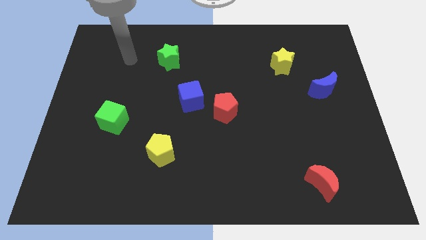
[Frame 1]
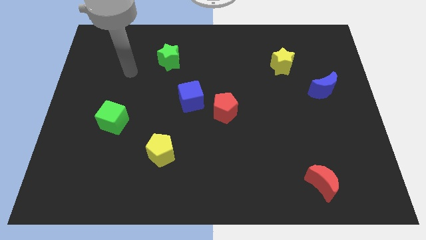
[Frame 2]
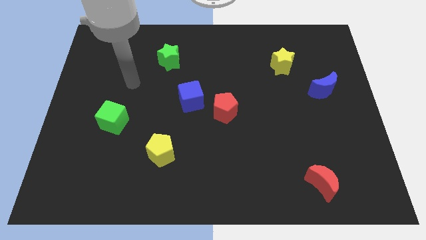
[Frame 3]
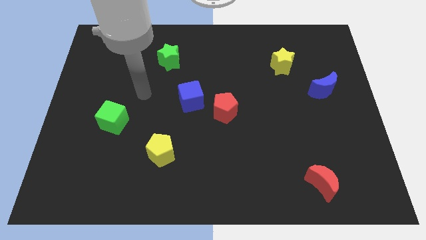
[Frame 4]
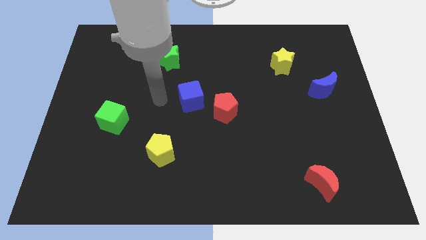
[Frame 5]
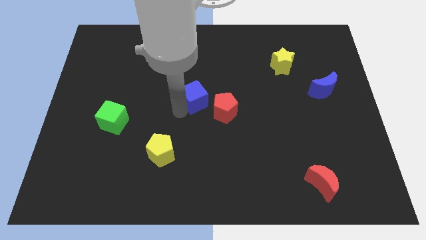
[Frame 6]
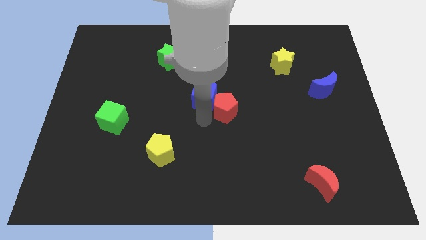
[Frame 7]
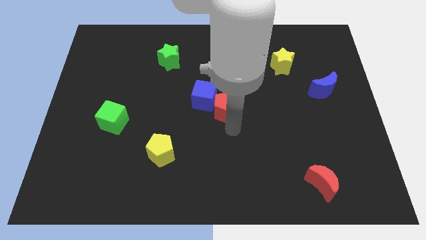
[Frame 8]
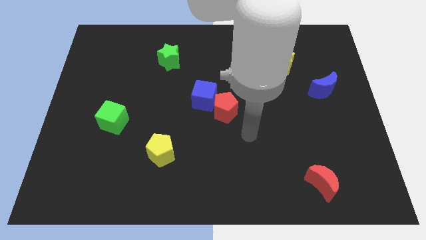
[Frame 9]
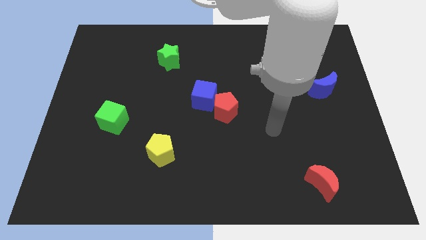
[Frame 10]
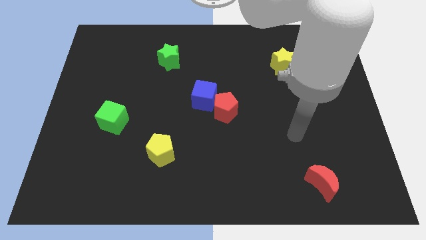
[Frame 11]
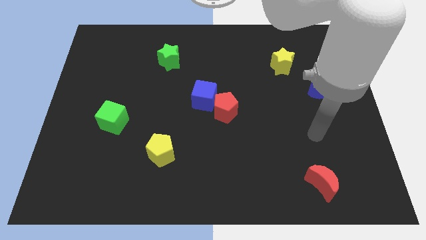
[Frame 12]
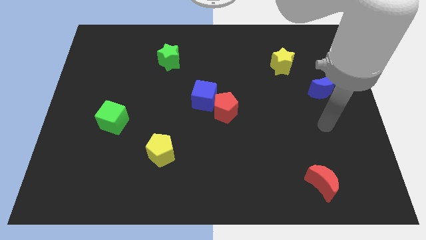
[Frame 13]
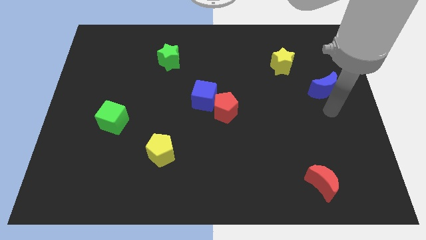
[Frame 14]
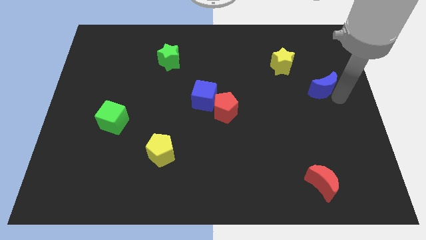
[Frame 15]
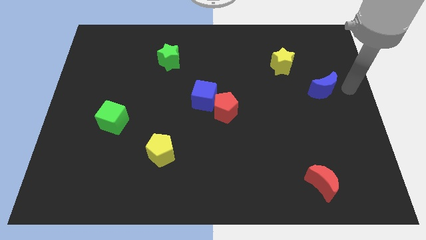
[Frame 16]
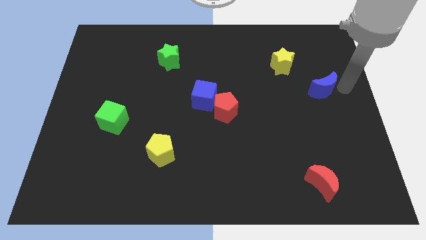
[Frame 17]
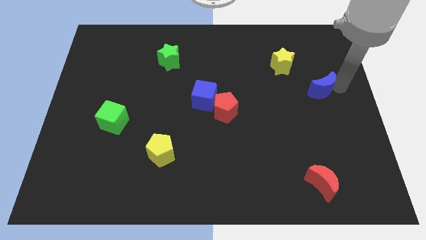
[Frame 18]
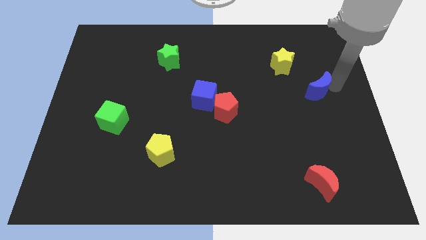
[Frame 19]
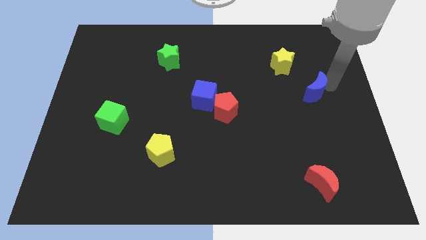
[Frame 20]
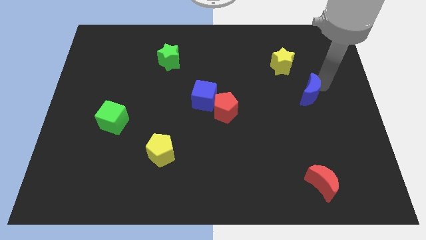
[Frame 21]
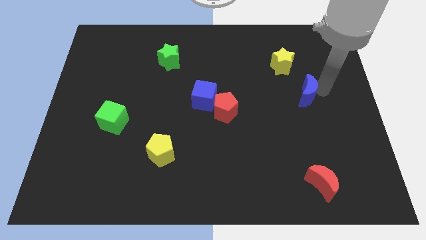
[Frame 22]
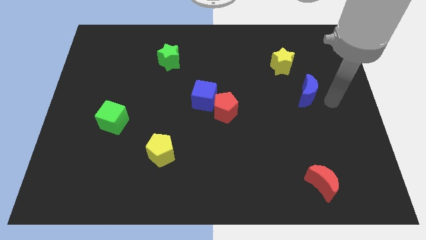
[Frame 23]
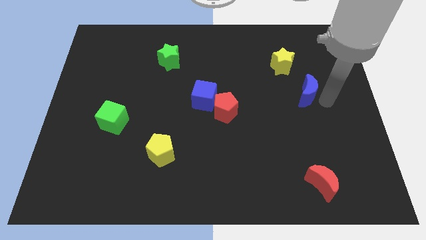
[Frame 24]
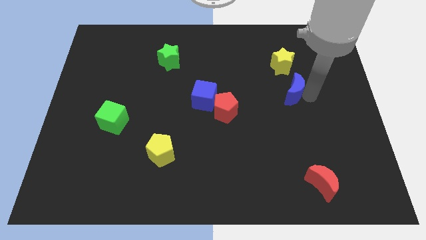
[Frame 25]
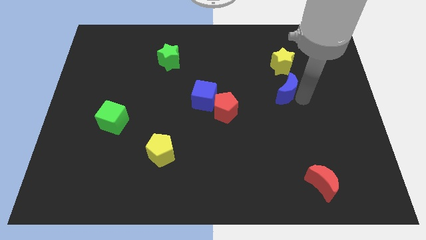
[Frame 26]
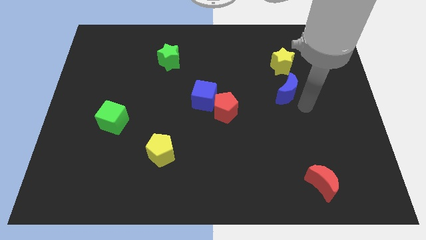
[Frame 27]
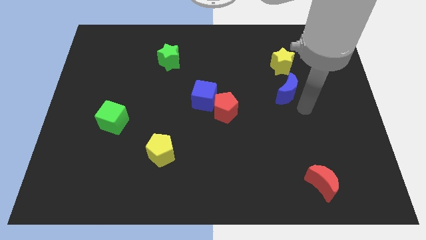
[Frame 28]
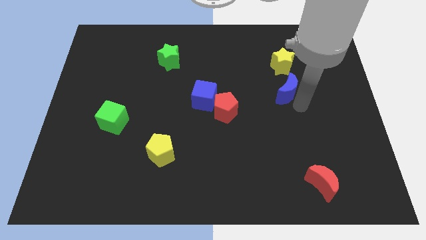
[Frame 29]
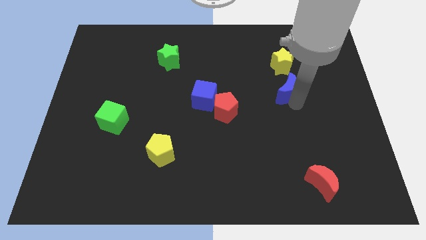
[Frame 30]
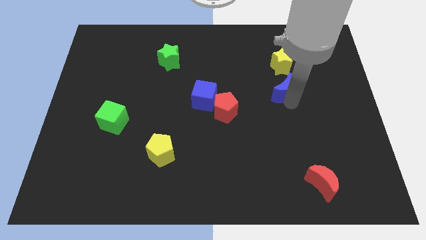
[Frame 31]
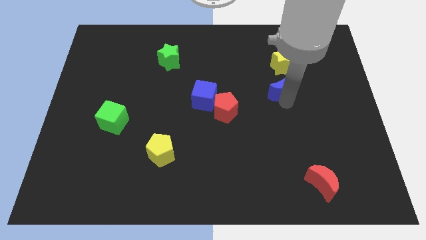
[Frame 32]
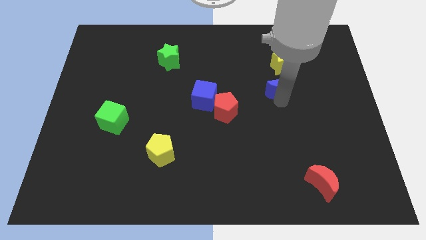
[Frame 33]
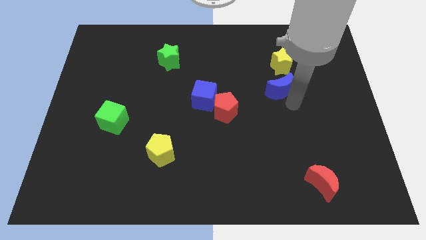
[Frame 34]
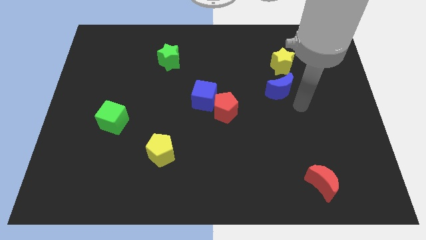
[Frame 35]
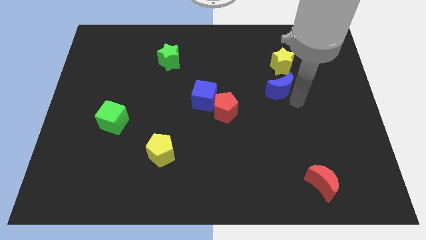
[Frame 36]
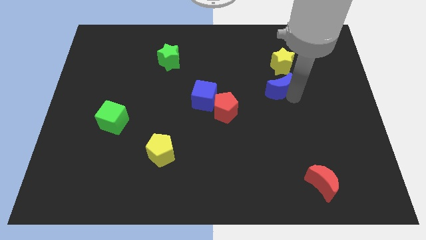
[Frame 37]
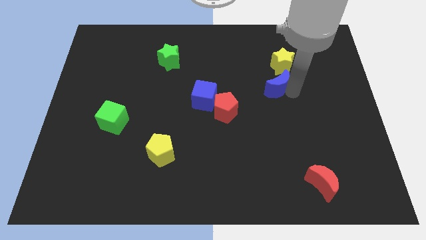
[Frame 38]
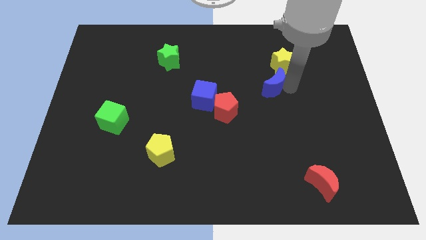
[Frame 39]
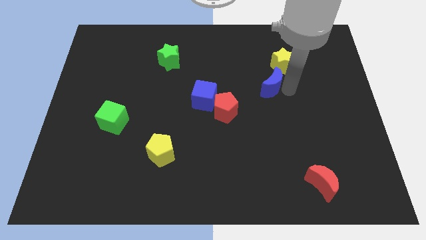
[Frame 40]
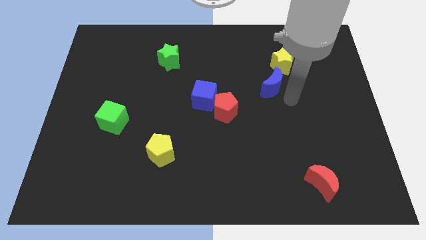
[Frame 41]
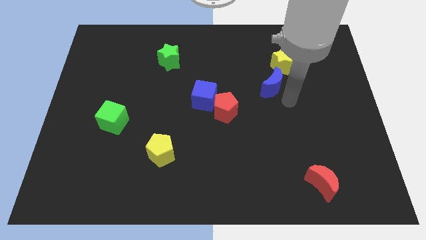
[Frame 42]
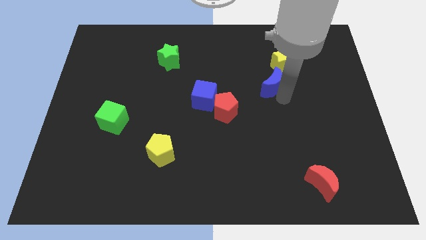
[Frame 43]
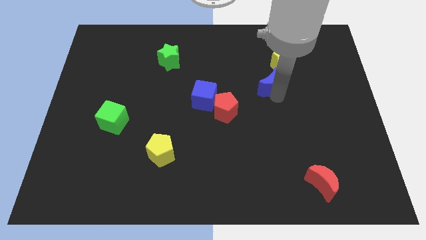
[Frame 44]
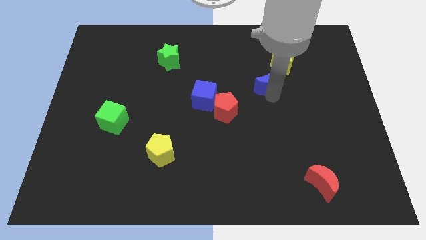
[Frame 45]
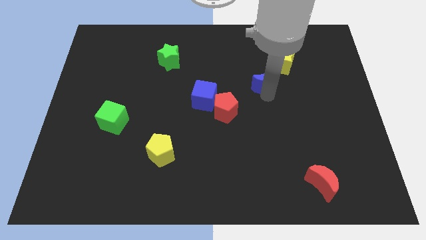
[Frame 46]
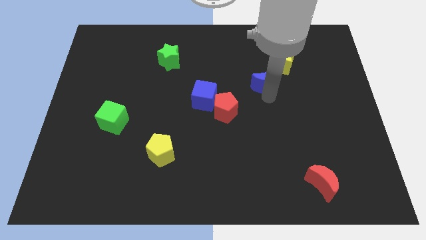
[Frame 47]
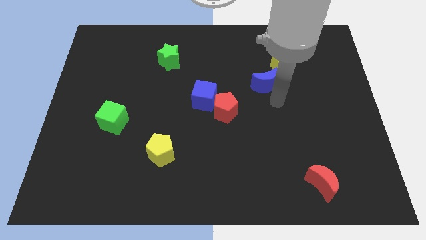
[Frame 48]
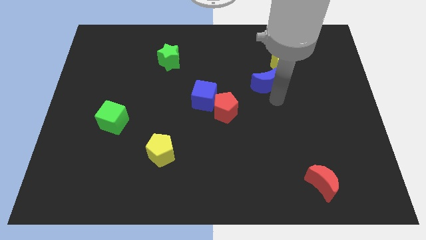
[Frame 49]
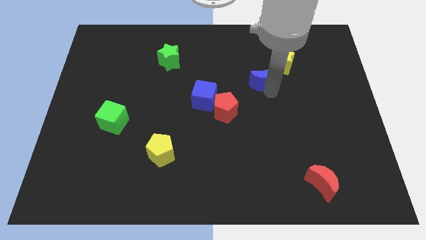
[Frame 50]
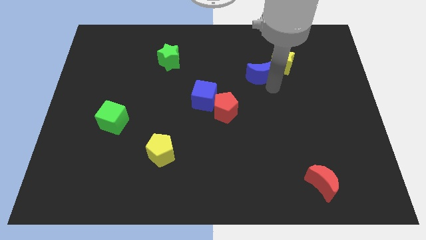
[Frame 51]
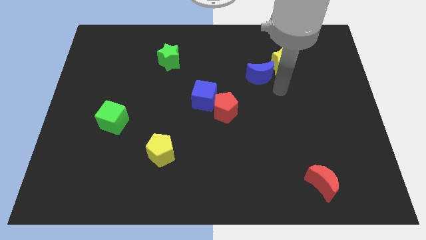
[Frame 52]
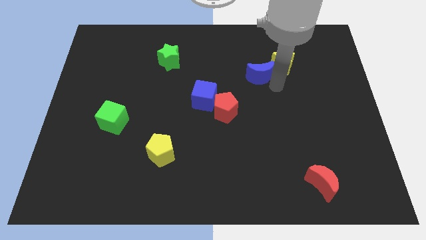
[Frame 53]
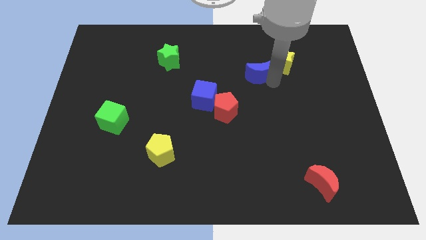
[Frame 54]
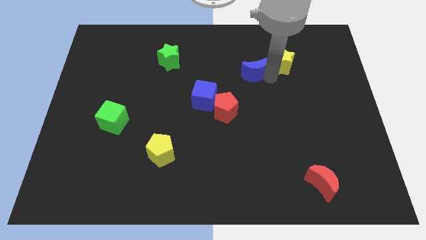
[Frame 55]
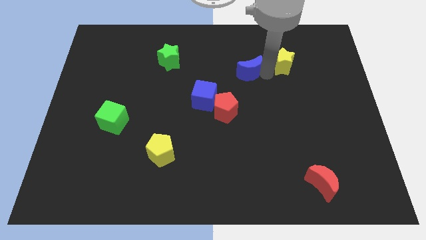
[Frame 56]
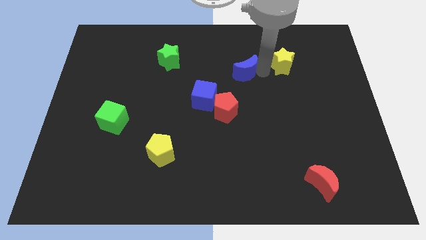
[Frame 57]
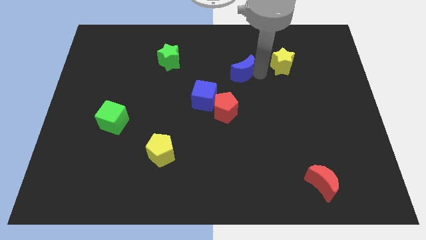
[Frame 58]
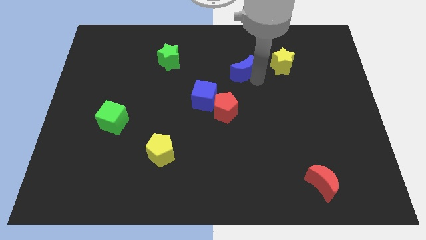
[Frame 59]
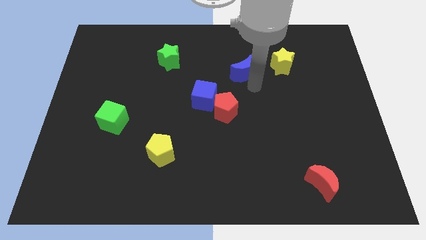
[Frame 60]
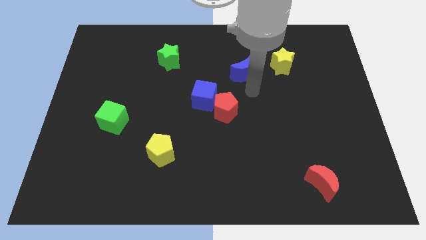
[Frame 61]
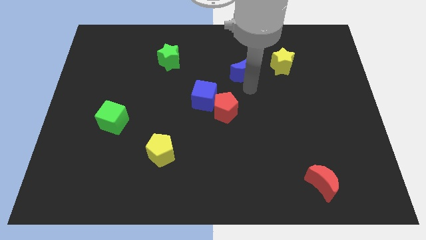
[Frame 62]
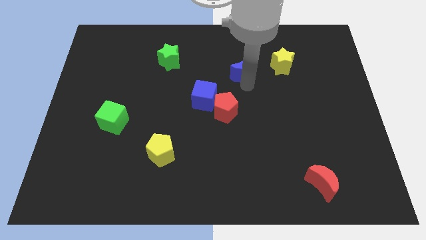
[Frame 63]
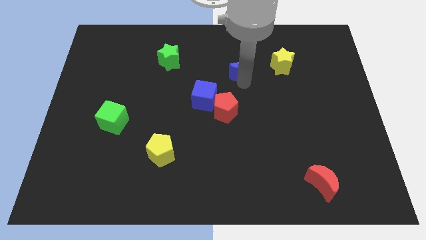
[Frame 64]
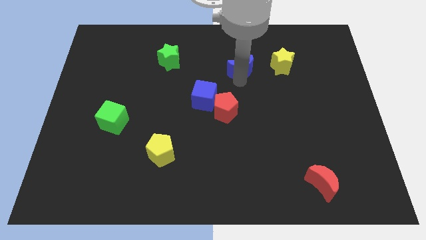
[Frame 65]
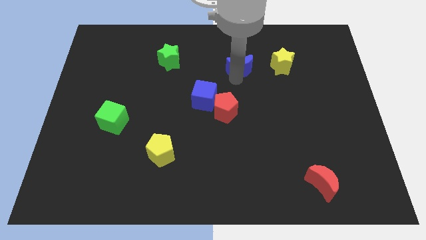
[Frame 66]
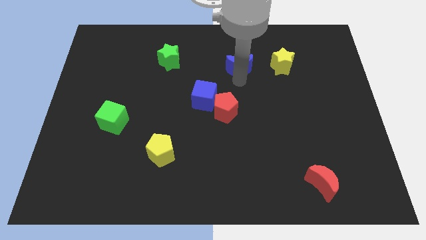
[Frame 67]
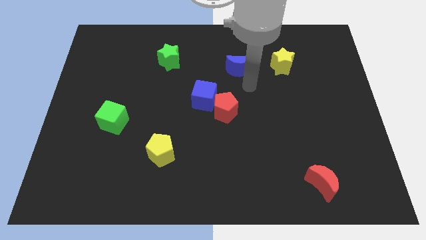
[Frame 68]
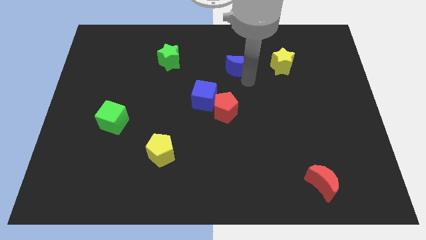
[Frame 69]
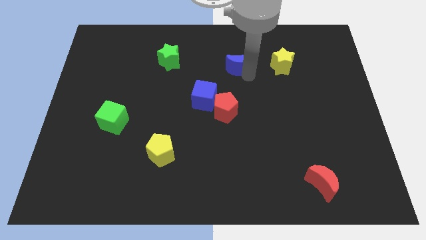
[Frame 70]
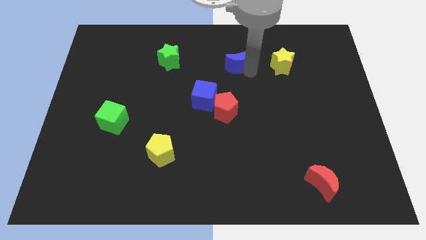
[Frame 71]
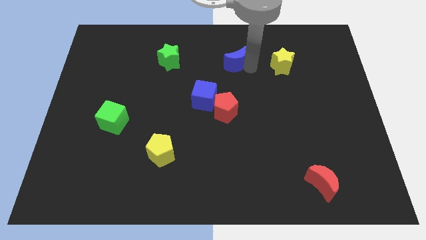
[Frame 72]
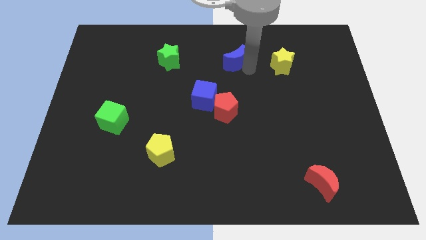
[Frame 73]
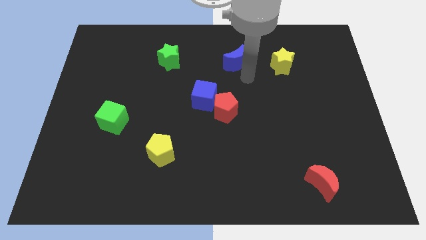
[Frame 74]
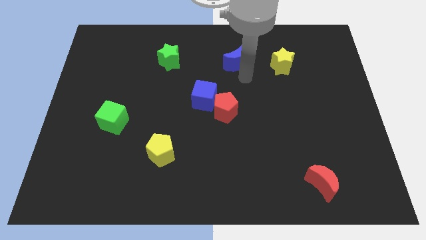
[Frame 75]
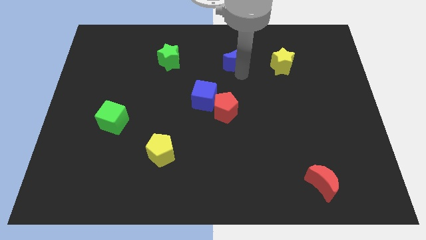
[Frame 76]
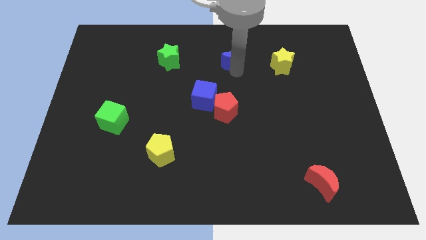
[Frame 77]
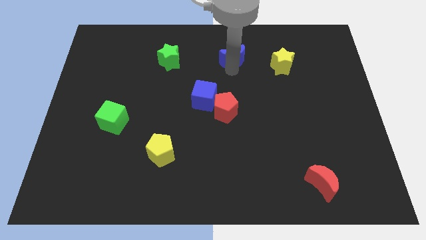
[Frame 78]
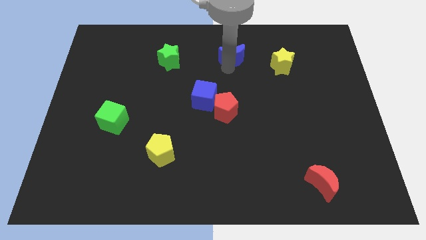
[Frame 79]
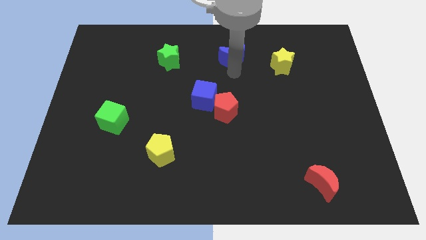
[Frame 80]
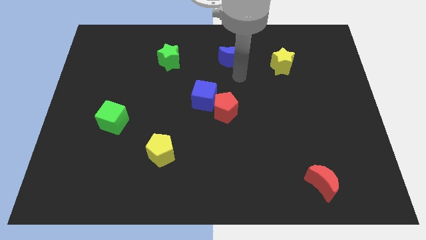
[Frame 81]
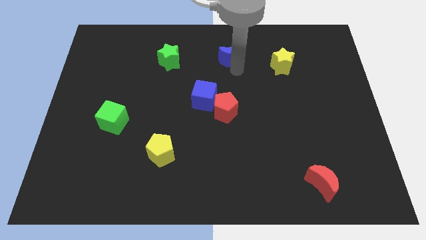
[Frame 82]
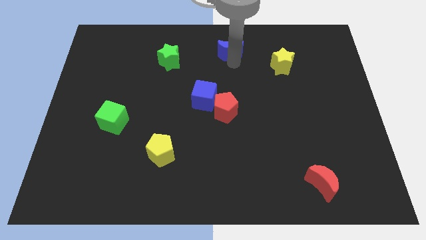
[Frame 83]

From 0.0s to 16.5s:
move the blue moon to the towards your base
